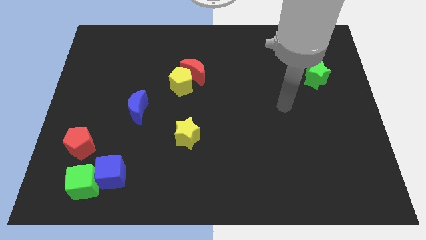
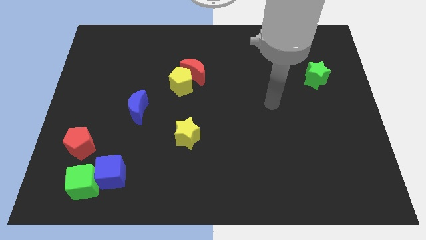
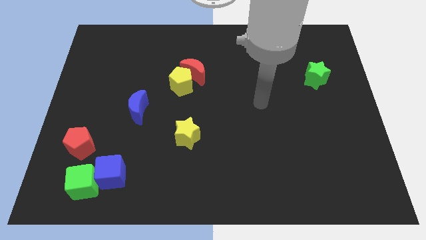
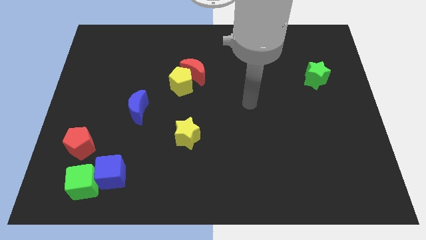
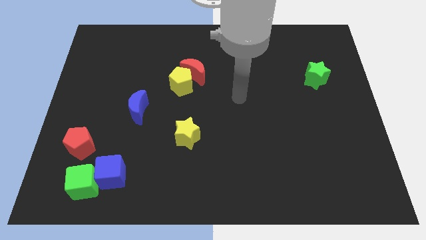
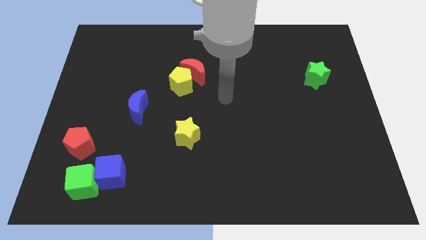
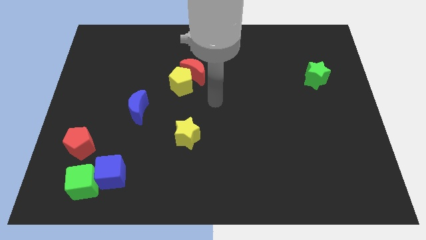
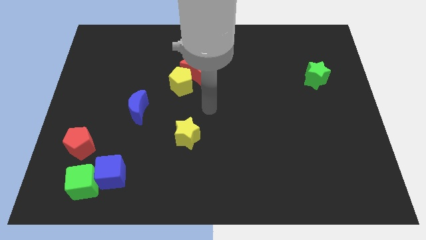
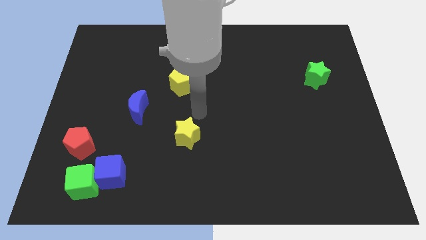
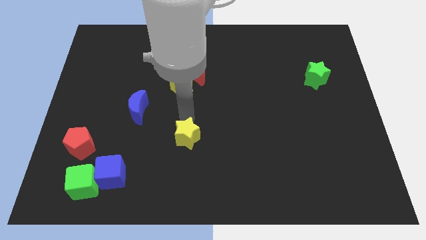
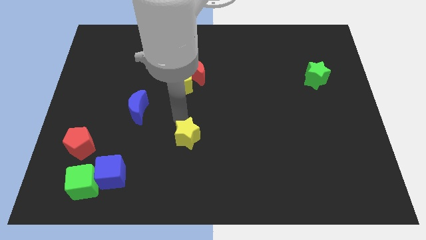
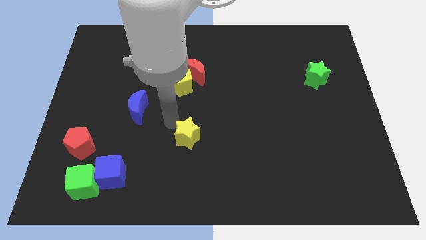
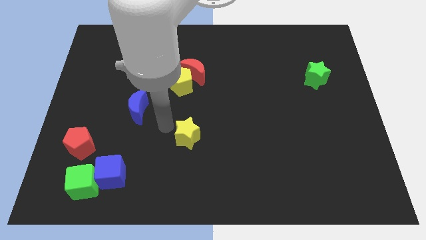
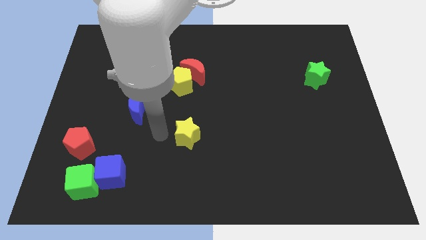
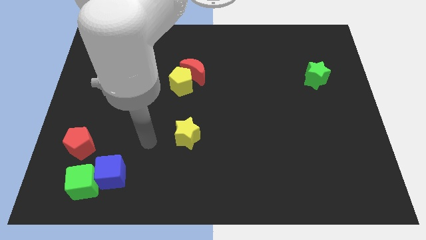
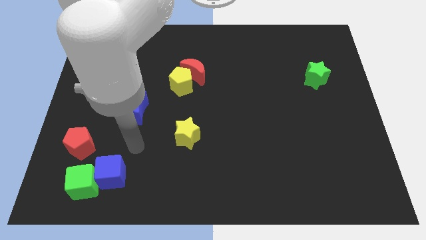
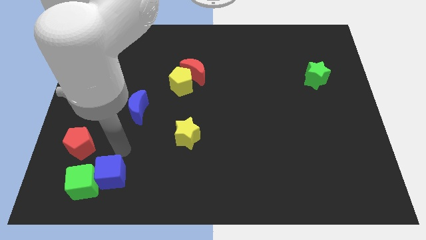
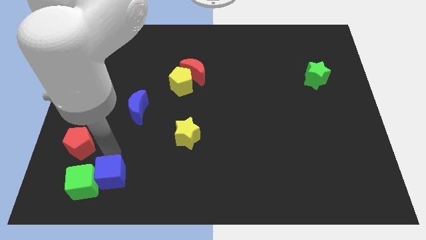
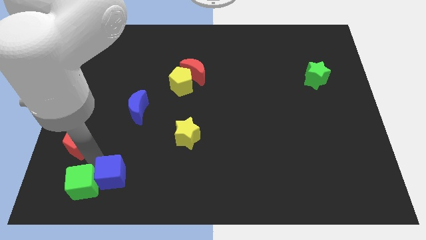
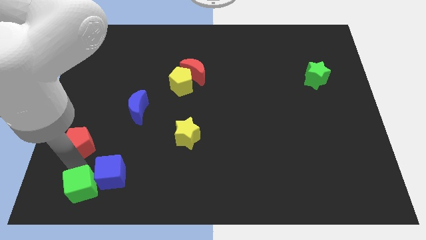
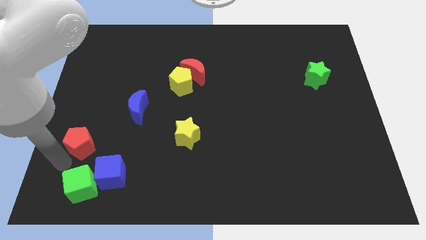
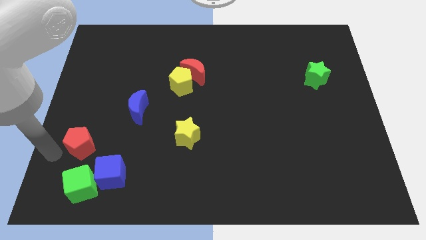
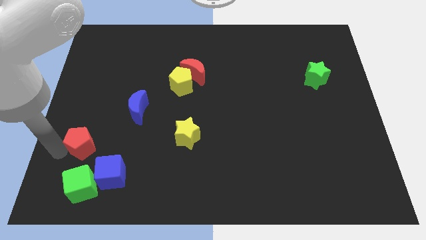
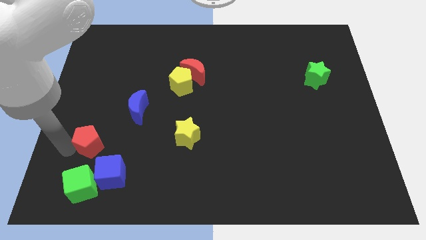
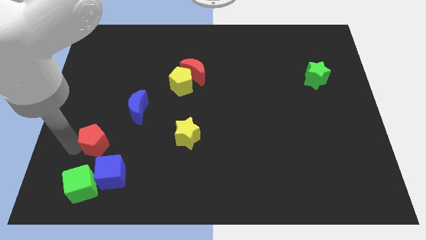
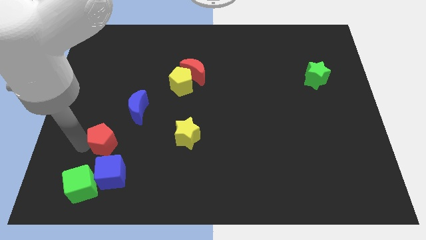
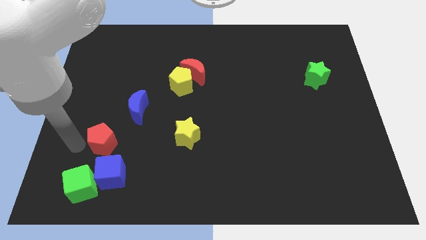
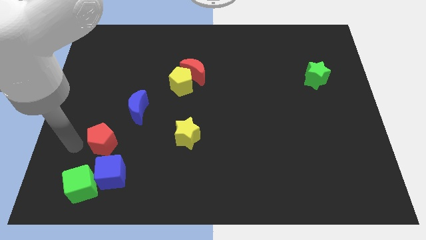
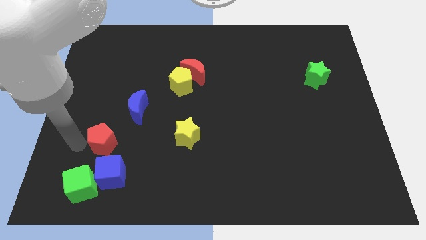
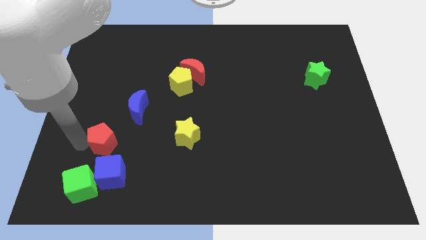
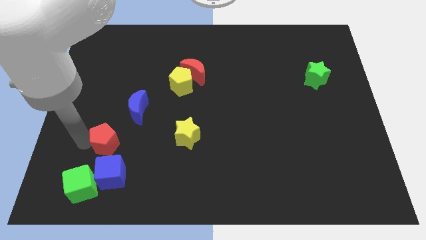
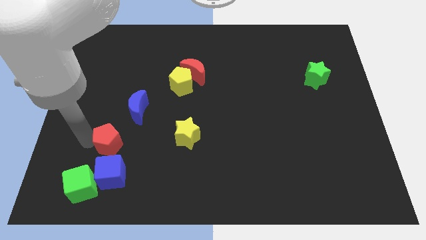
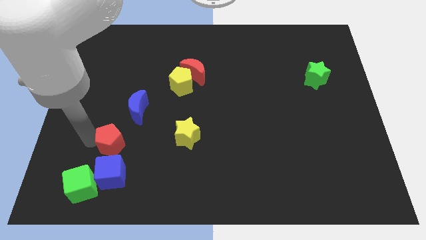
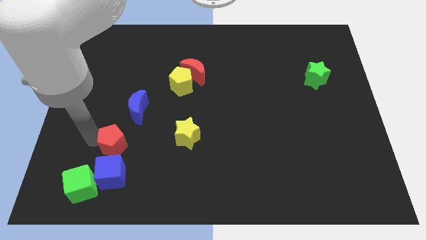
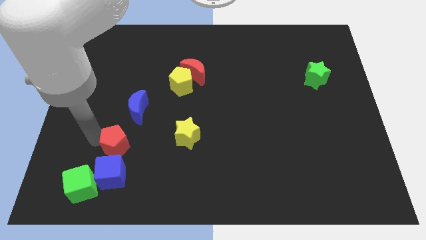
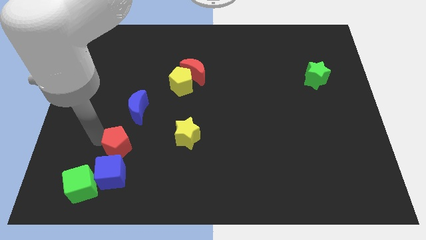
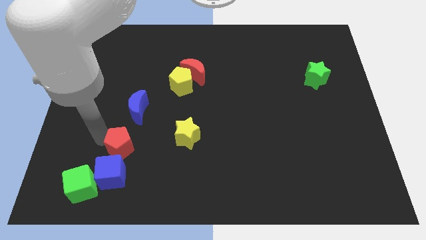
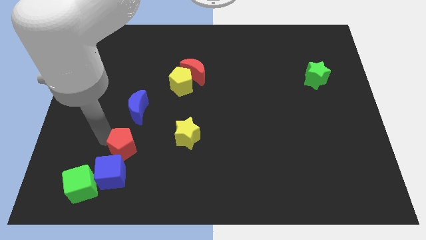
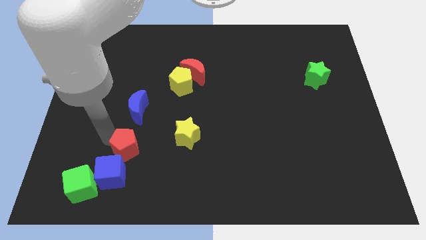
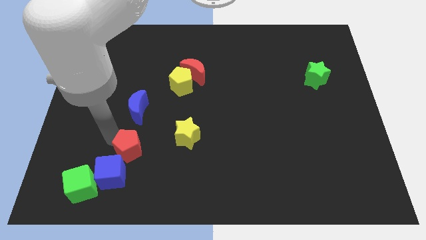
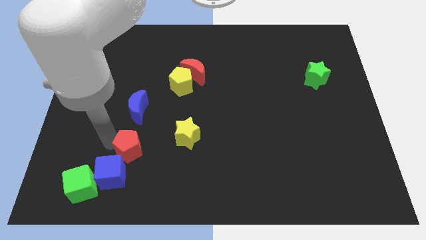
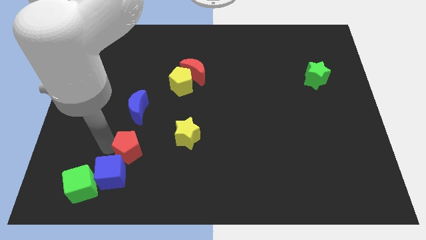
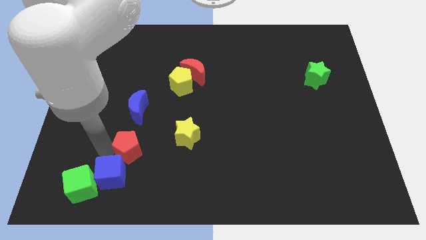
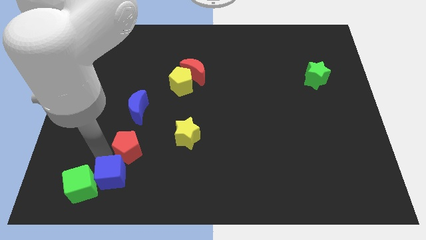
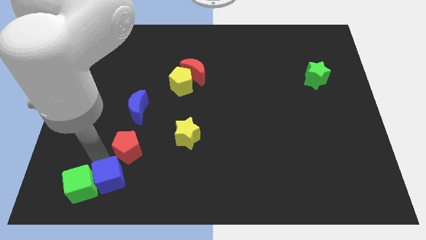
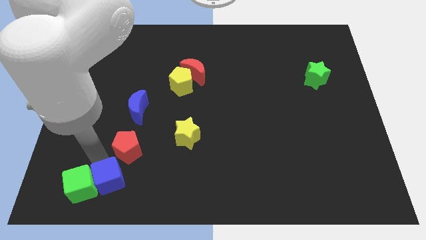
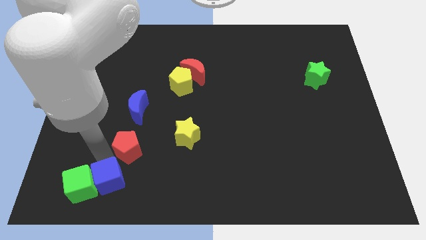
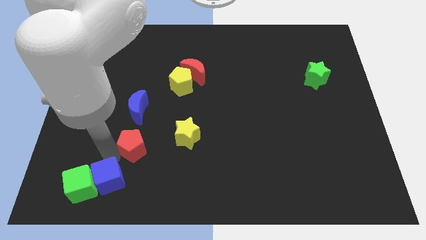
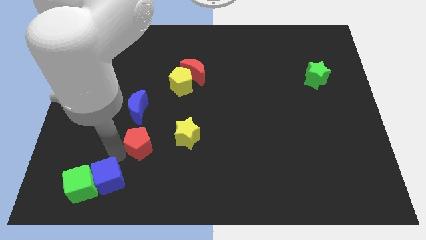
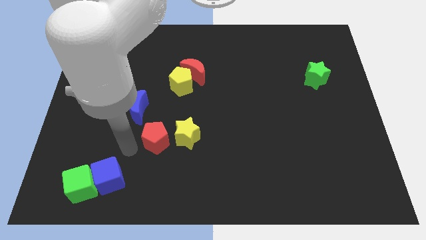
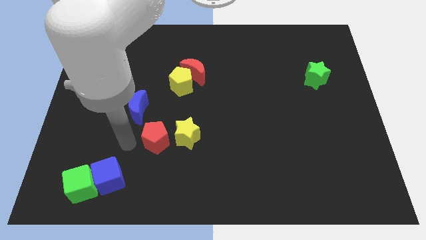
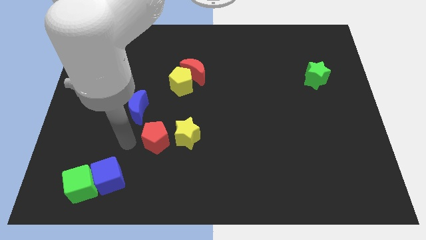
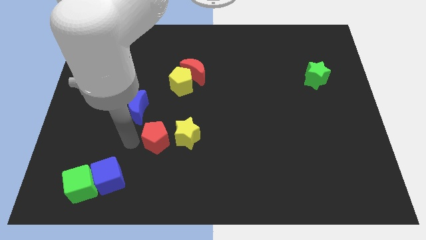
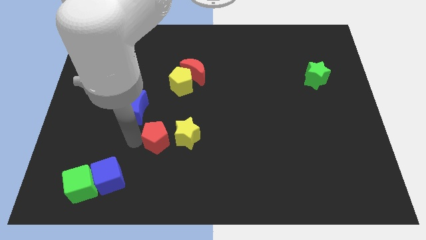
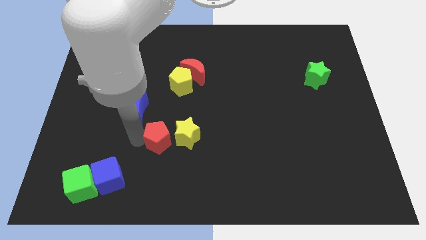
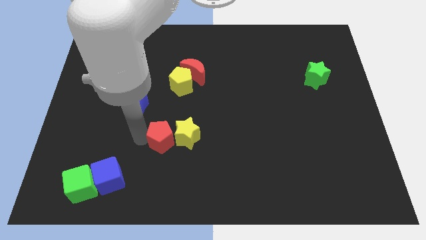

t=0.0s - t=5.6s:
move the red pentagon towards the yellow star

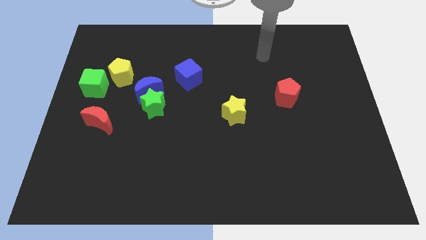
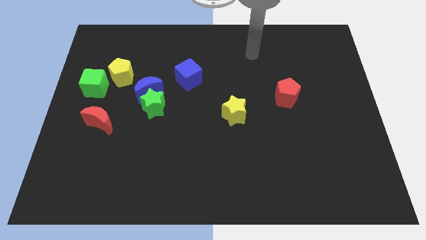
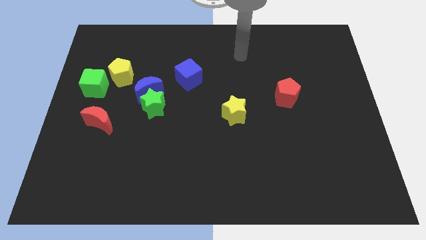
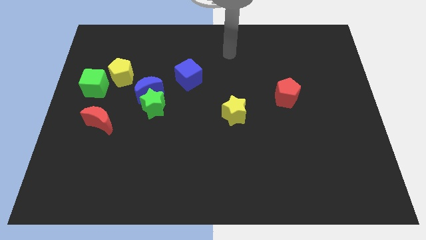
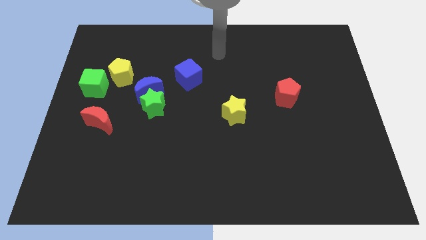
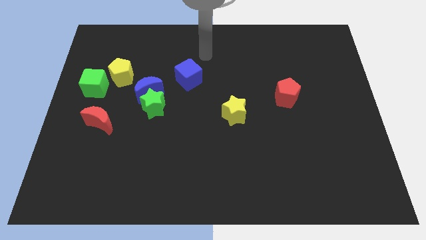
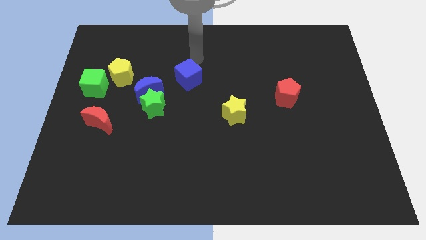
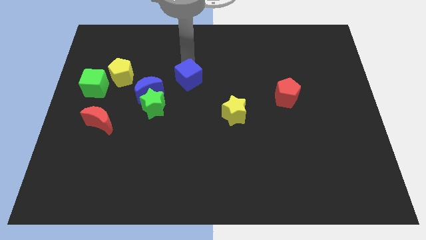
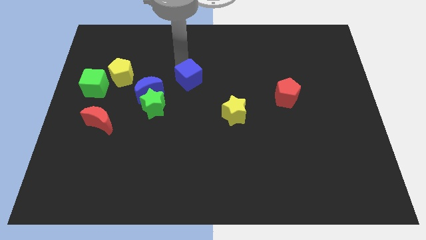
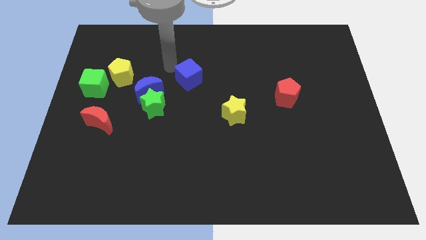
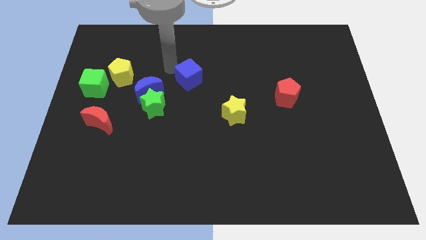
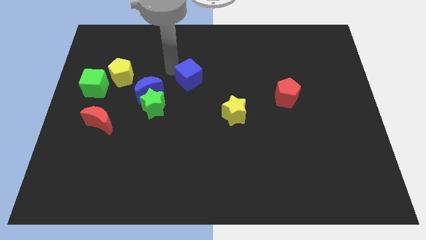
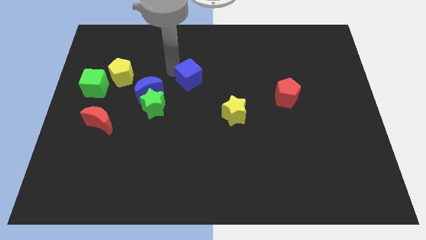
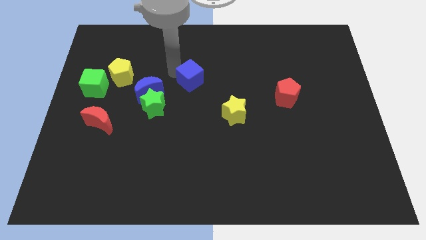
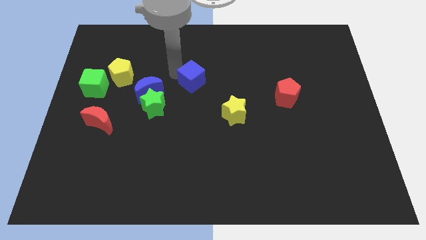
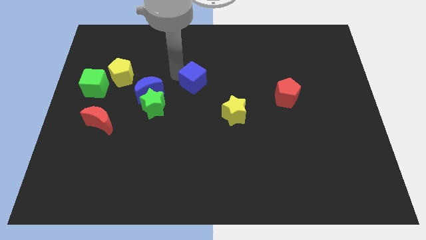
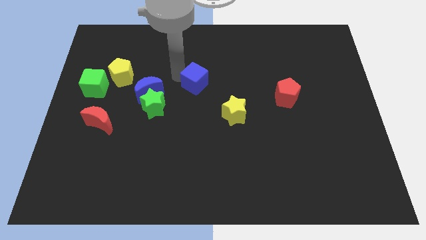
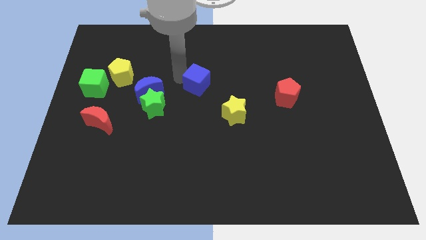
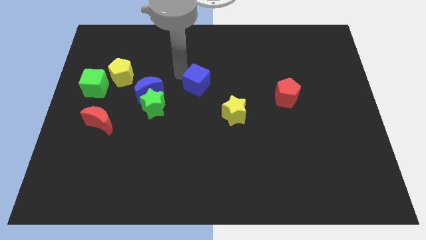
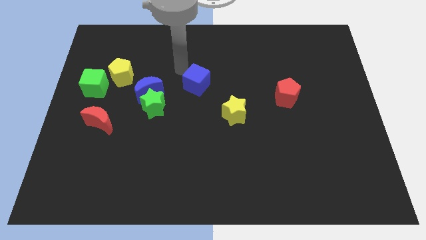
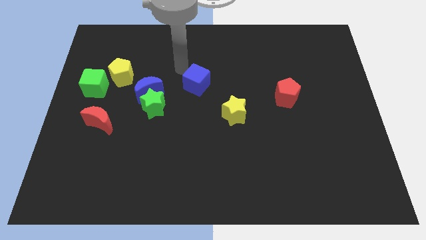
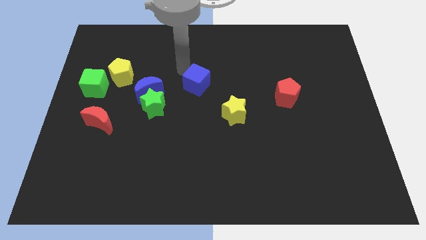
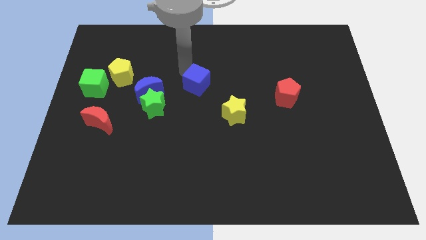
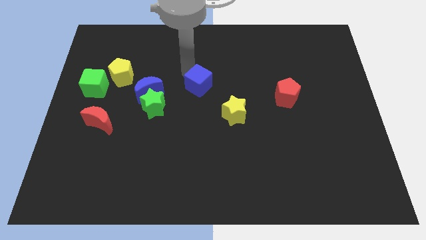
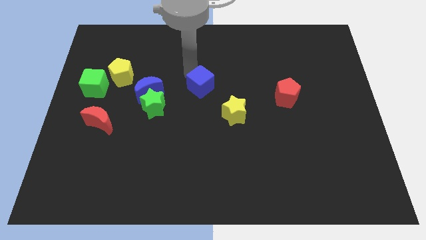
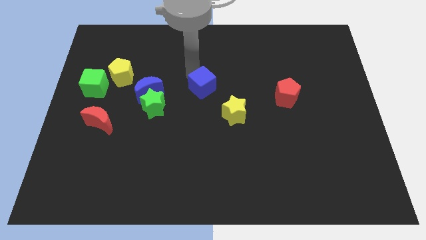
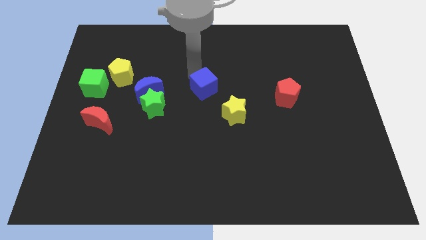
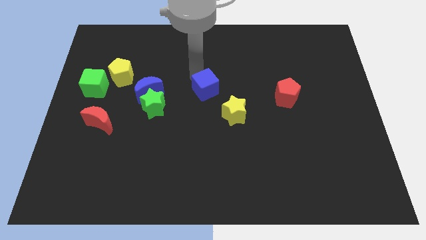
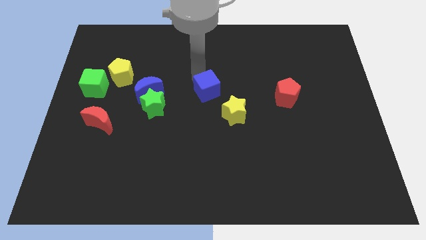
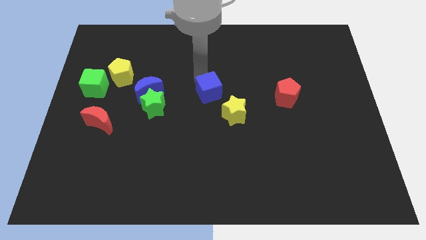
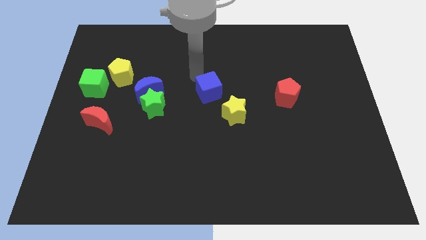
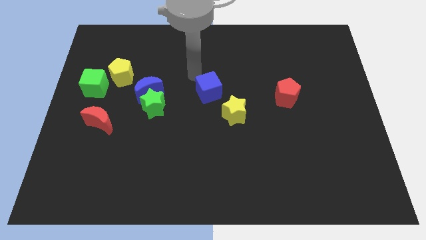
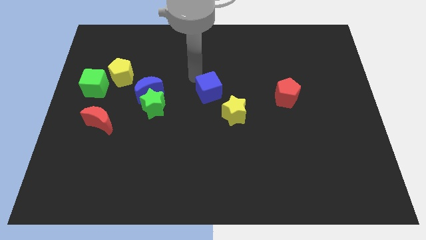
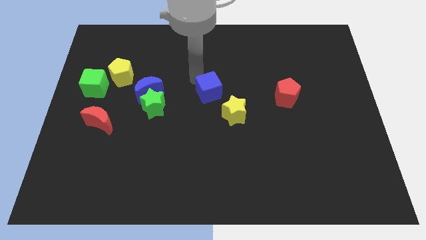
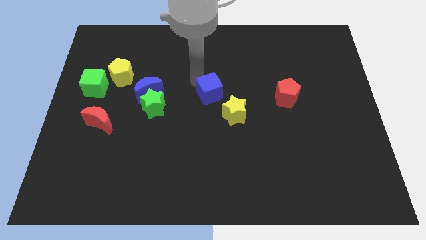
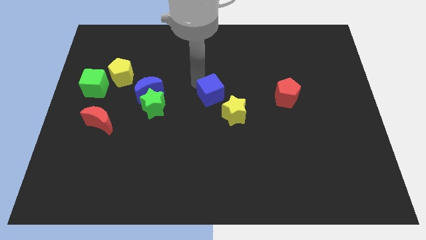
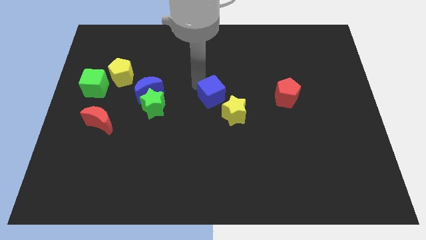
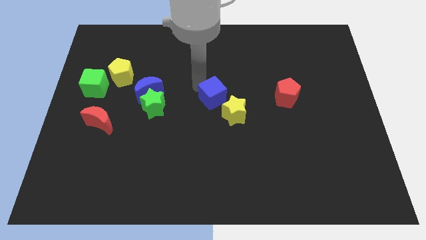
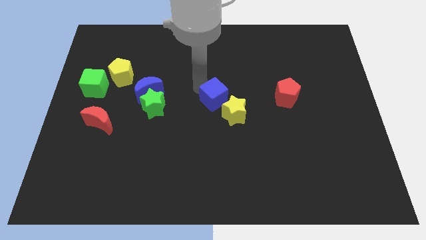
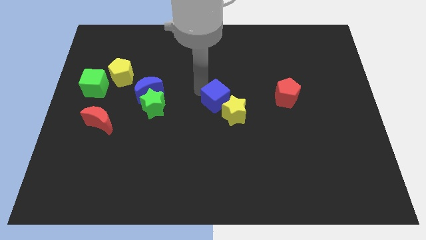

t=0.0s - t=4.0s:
push the blue cube close to the yellow star
